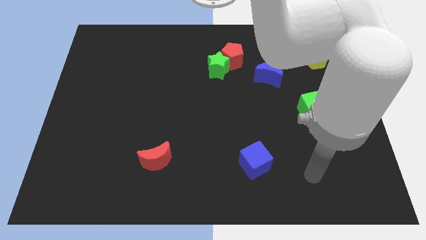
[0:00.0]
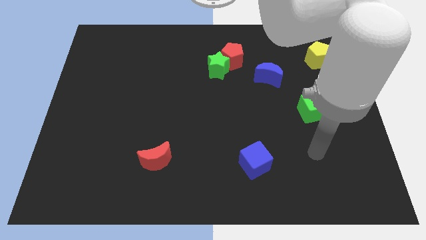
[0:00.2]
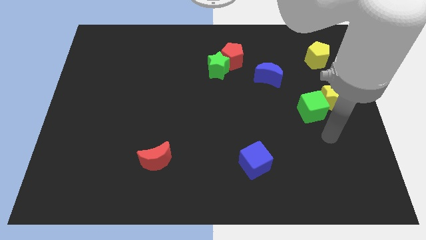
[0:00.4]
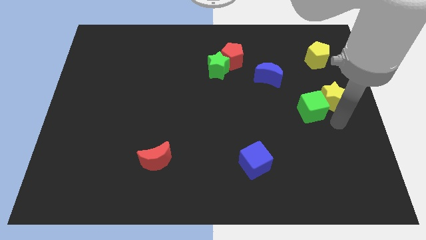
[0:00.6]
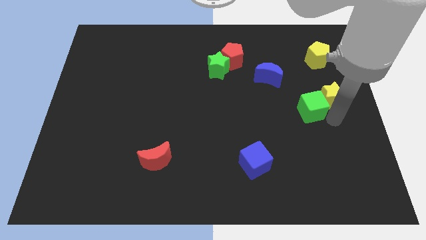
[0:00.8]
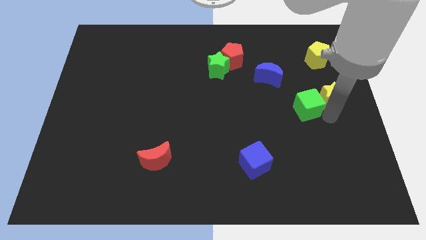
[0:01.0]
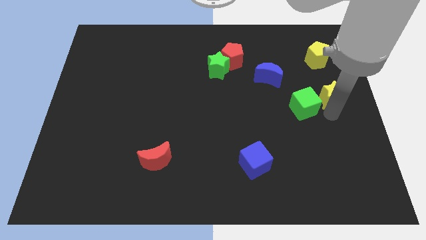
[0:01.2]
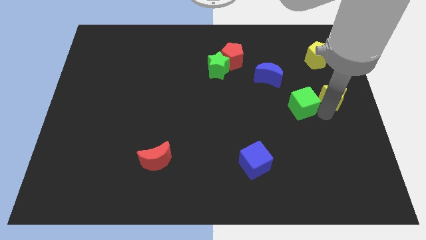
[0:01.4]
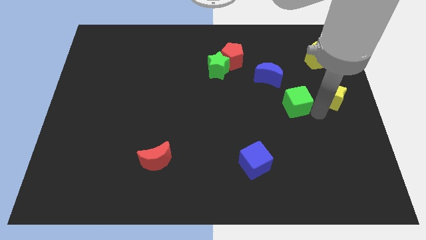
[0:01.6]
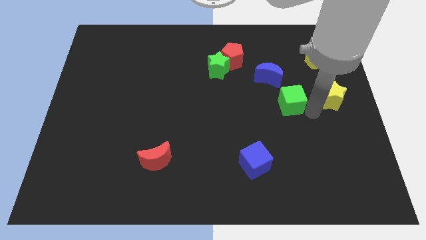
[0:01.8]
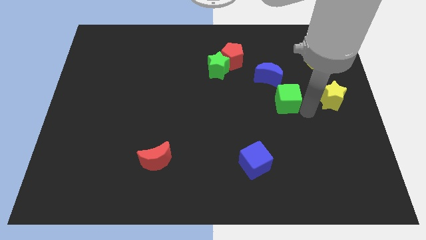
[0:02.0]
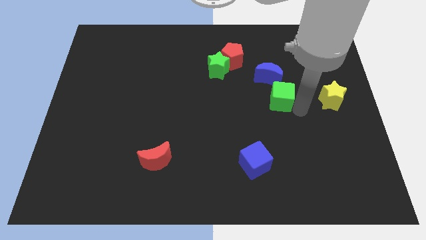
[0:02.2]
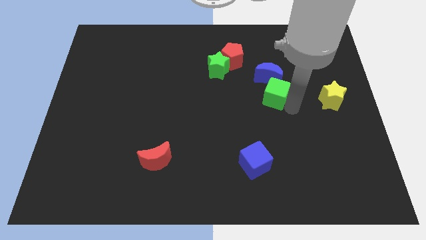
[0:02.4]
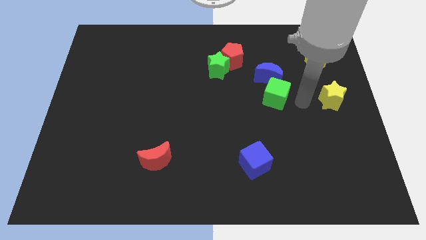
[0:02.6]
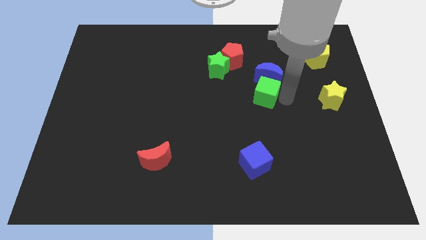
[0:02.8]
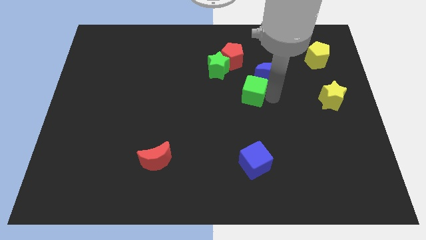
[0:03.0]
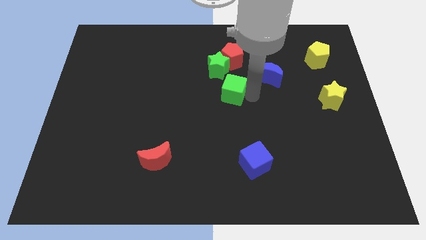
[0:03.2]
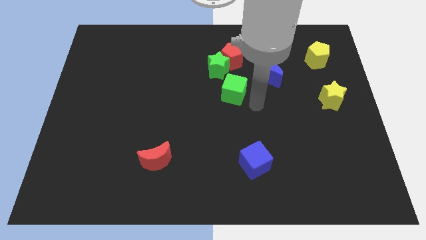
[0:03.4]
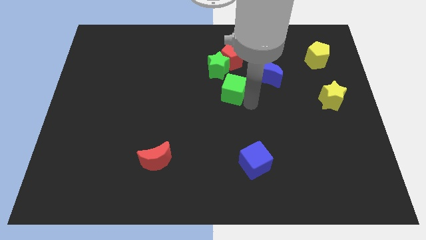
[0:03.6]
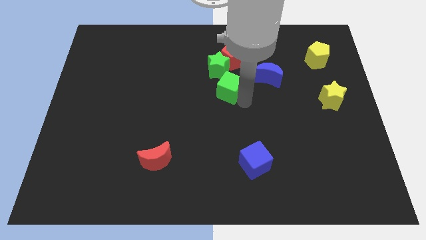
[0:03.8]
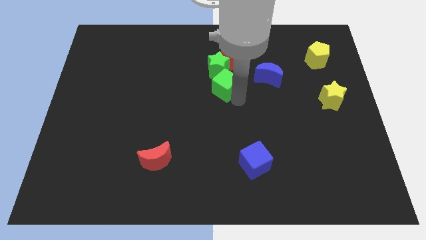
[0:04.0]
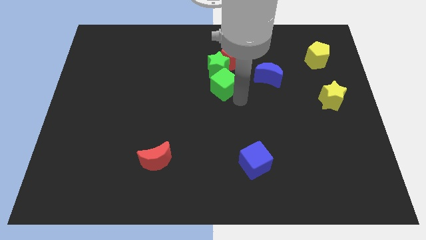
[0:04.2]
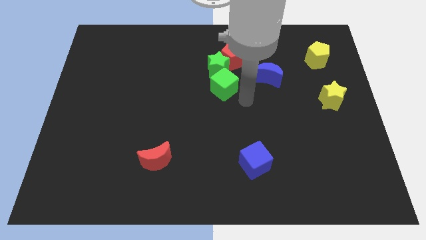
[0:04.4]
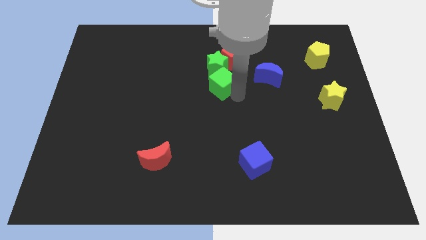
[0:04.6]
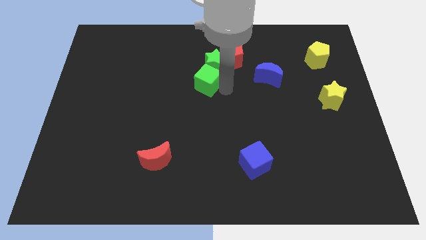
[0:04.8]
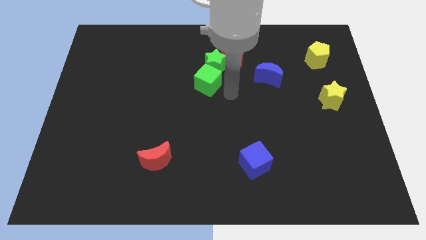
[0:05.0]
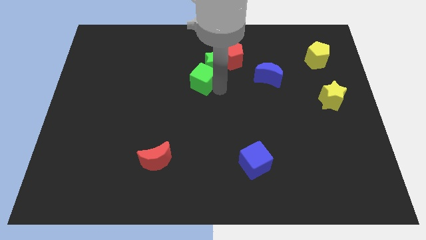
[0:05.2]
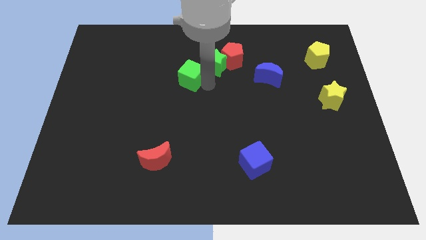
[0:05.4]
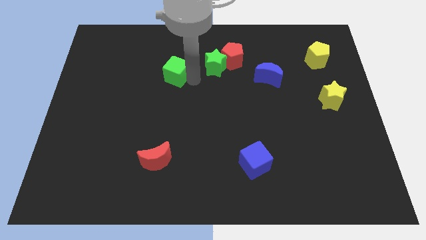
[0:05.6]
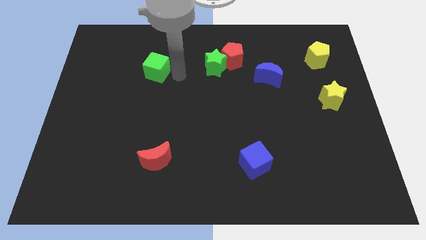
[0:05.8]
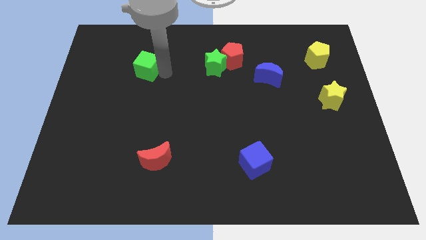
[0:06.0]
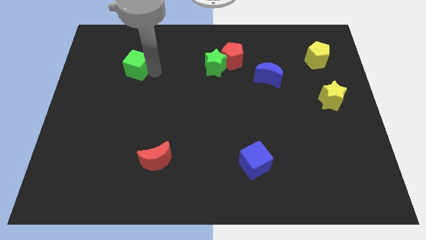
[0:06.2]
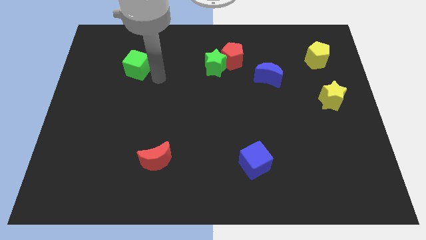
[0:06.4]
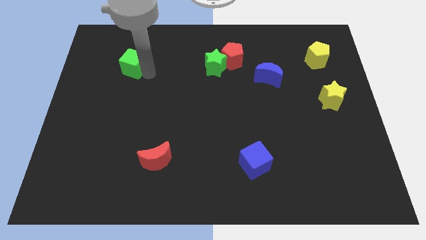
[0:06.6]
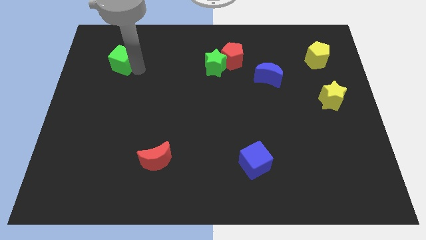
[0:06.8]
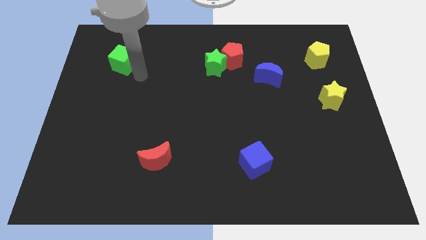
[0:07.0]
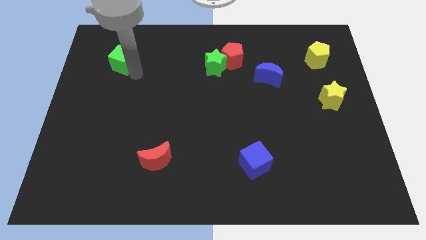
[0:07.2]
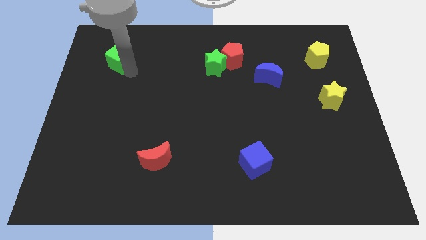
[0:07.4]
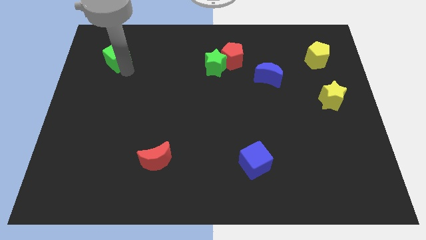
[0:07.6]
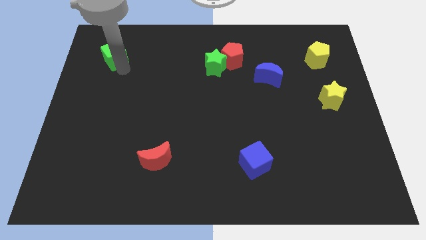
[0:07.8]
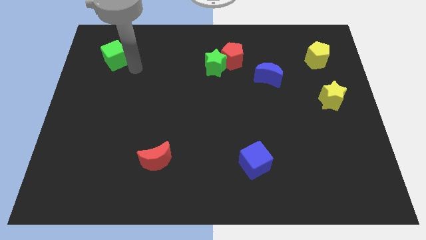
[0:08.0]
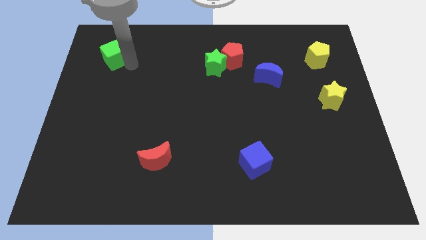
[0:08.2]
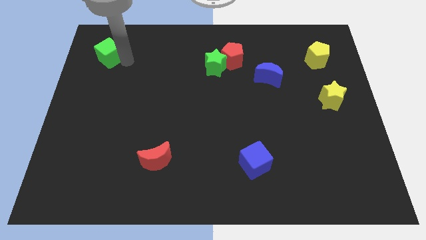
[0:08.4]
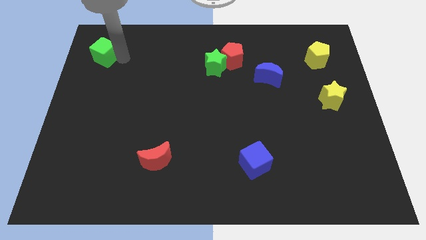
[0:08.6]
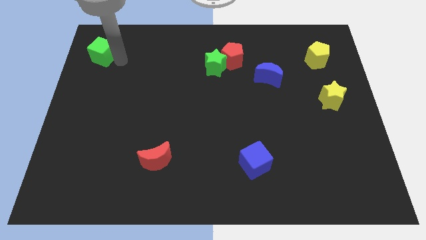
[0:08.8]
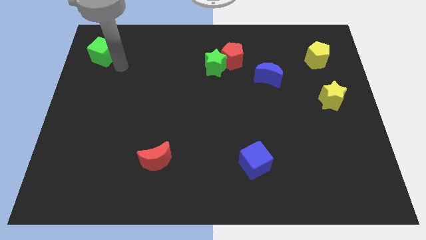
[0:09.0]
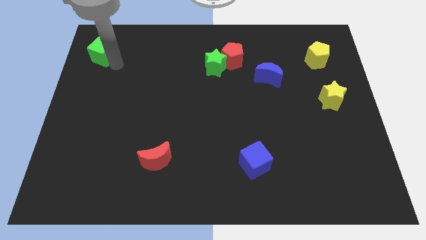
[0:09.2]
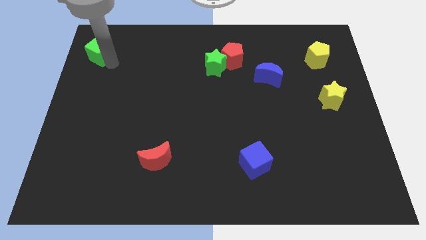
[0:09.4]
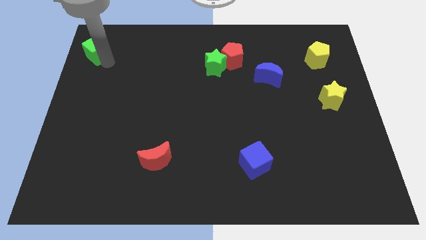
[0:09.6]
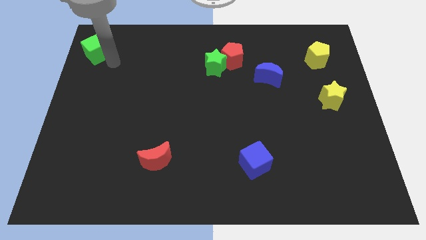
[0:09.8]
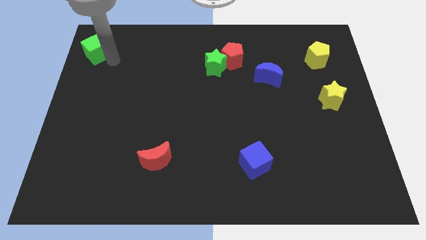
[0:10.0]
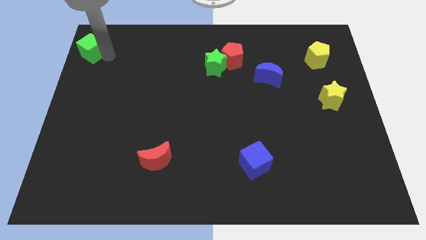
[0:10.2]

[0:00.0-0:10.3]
push the green cube to the top left corner
